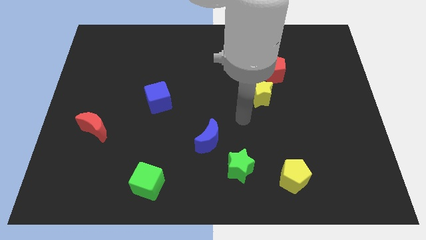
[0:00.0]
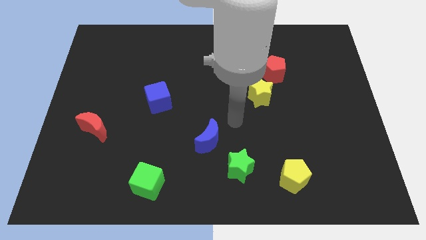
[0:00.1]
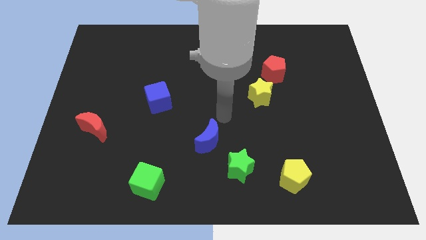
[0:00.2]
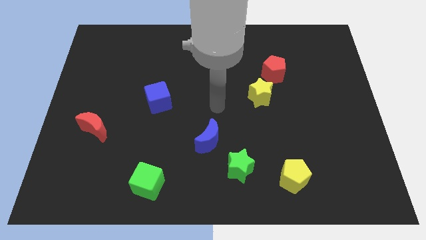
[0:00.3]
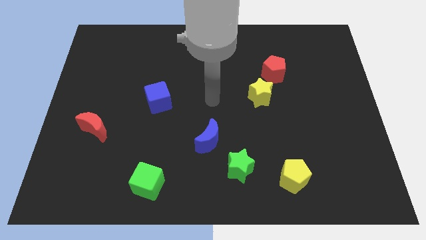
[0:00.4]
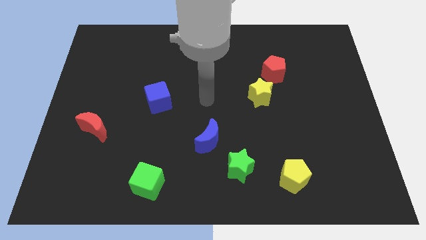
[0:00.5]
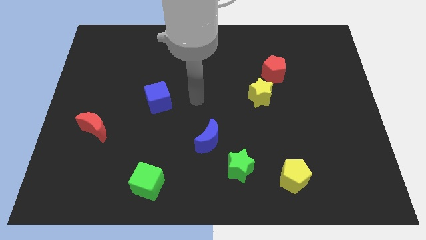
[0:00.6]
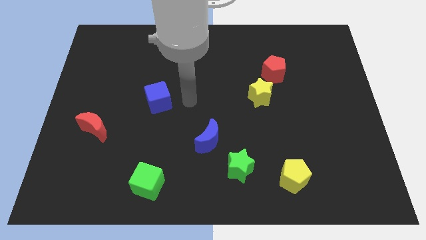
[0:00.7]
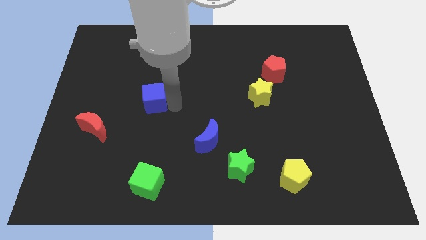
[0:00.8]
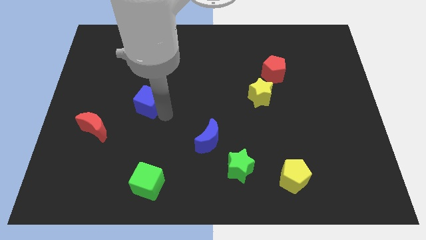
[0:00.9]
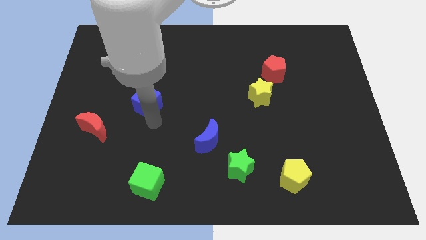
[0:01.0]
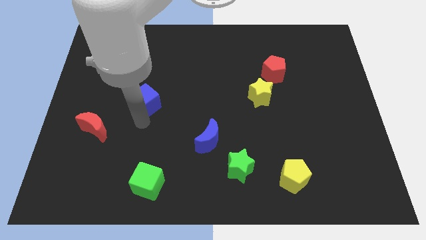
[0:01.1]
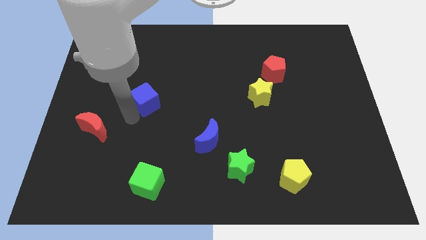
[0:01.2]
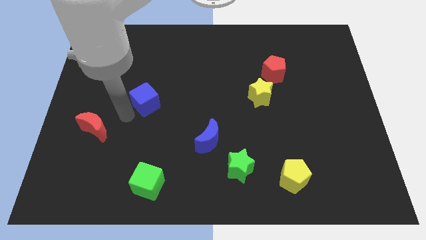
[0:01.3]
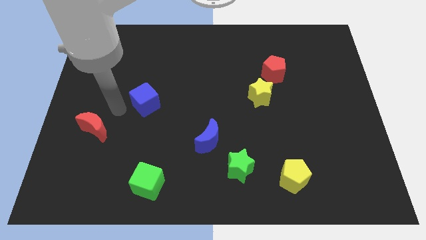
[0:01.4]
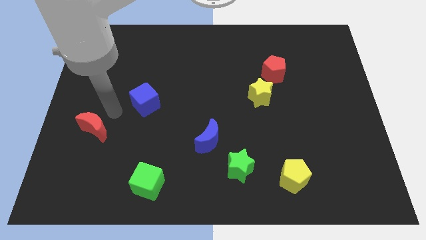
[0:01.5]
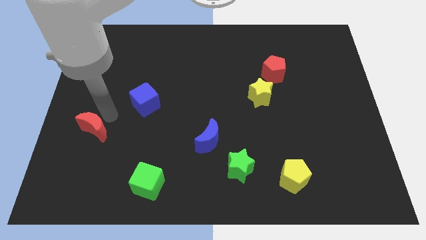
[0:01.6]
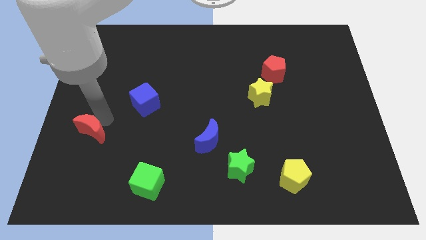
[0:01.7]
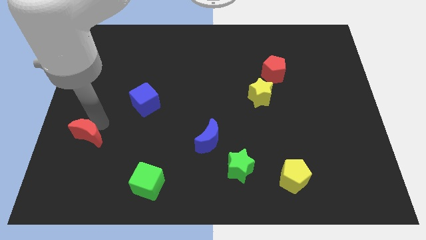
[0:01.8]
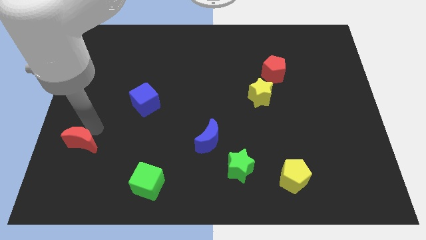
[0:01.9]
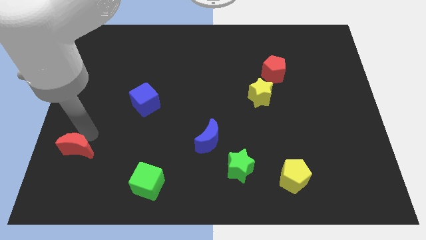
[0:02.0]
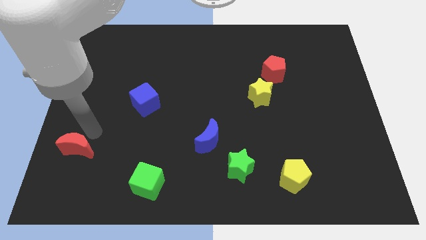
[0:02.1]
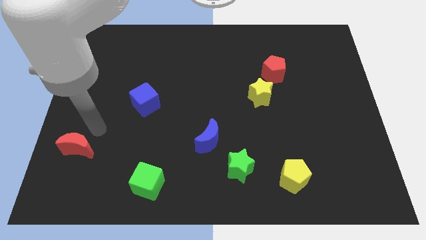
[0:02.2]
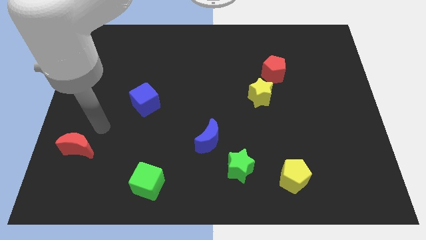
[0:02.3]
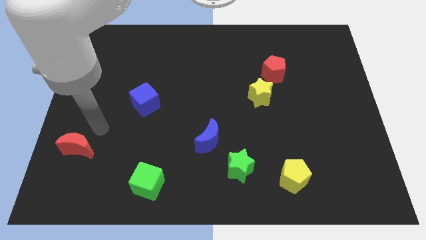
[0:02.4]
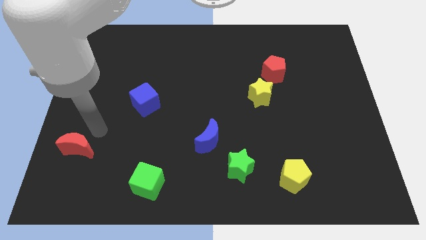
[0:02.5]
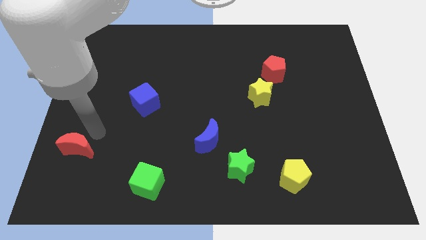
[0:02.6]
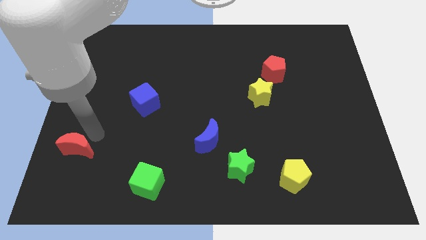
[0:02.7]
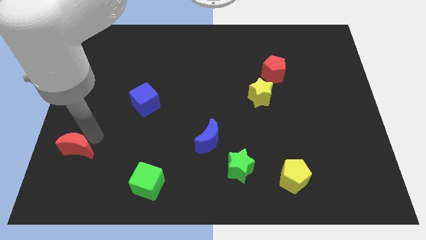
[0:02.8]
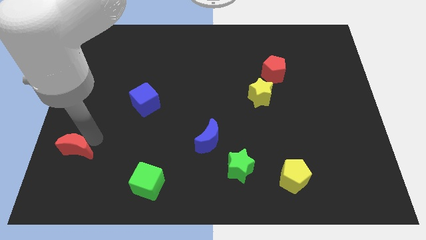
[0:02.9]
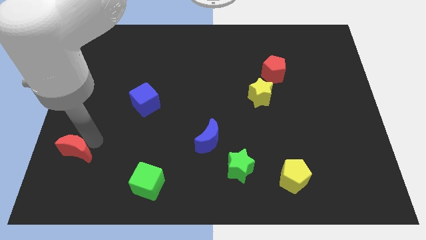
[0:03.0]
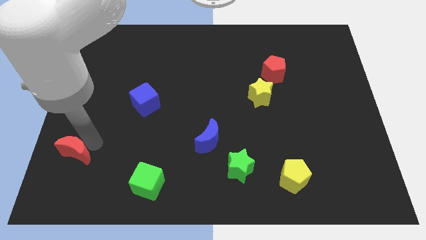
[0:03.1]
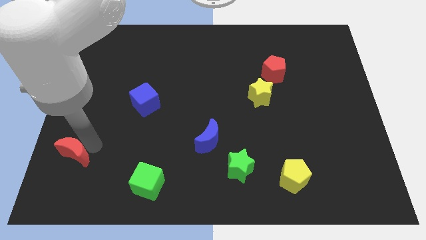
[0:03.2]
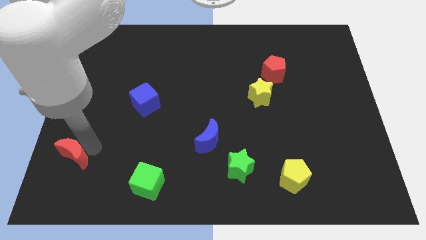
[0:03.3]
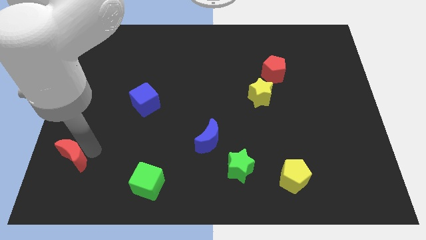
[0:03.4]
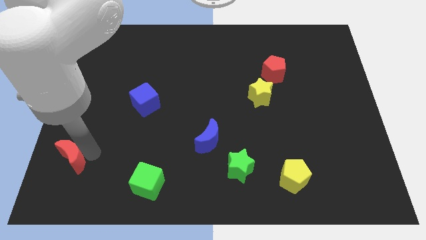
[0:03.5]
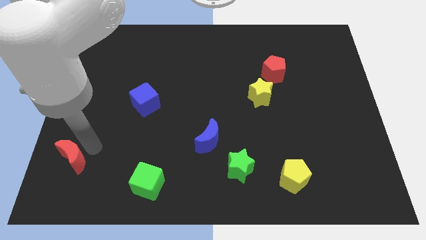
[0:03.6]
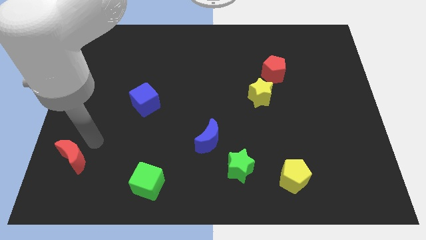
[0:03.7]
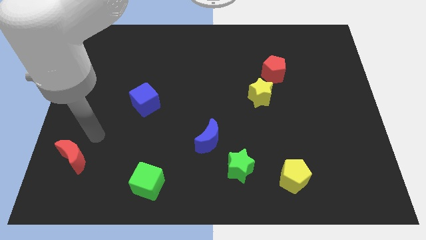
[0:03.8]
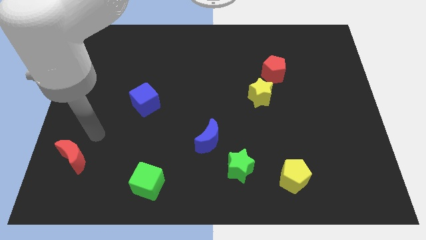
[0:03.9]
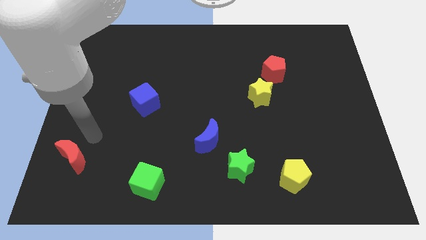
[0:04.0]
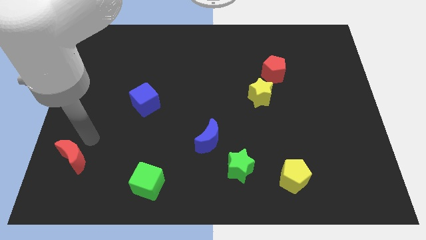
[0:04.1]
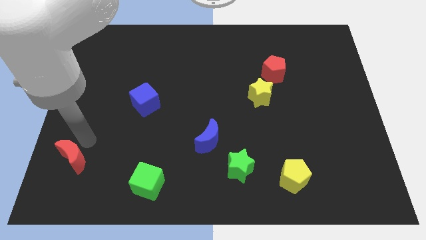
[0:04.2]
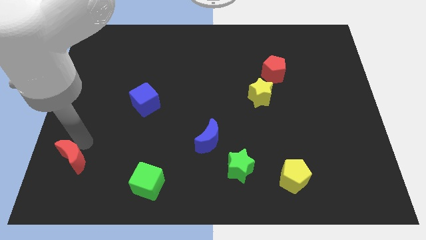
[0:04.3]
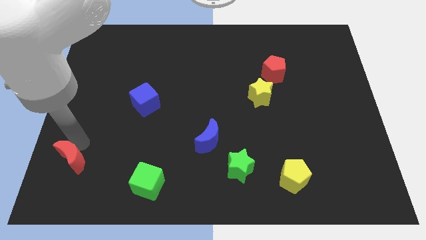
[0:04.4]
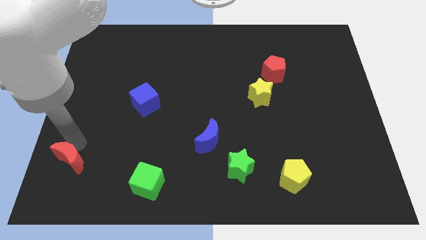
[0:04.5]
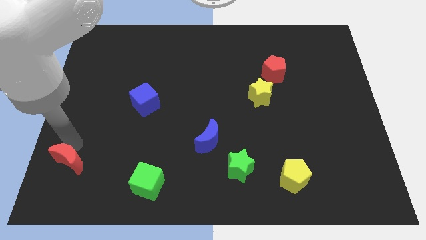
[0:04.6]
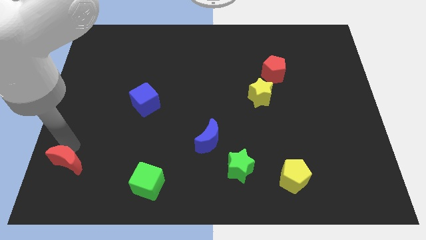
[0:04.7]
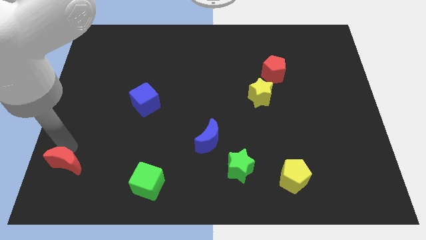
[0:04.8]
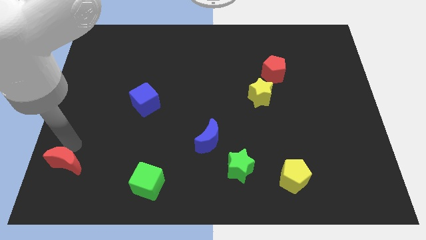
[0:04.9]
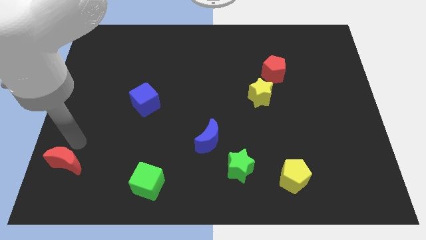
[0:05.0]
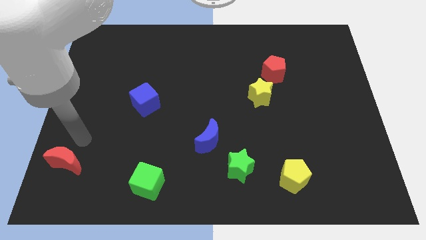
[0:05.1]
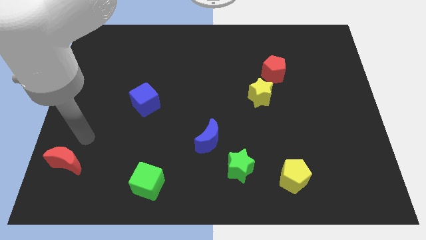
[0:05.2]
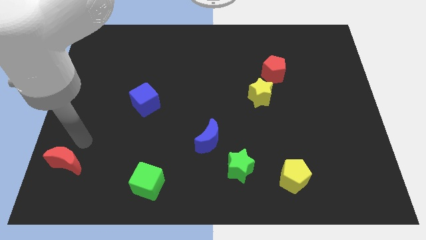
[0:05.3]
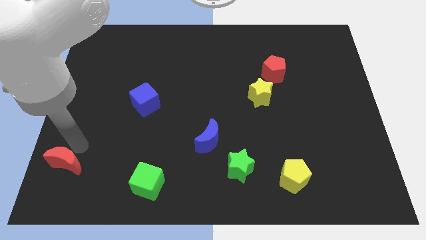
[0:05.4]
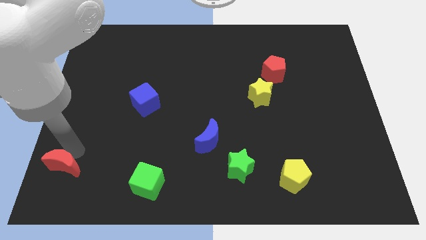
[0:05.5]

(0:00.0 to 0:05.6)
slide the red moon to the lower left corner
